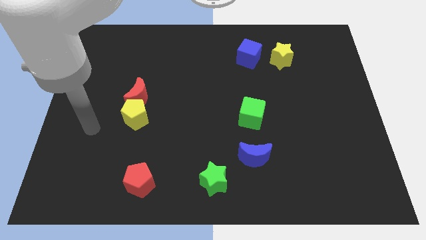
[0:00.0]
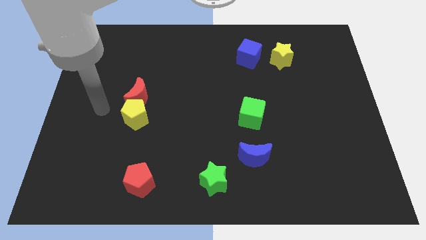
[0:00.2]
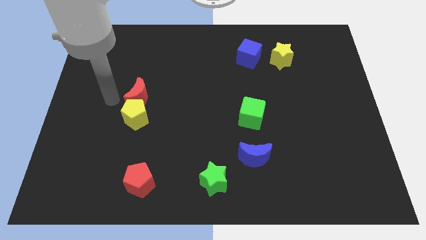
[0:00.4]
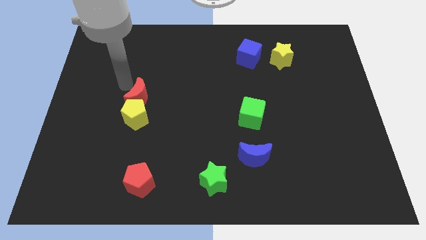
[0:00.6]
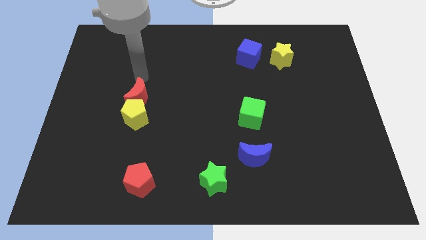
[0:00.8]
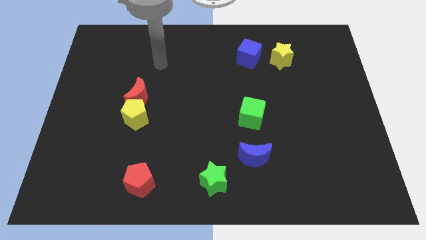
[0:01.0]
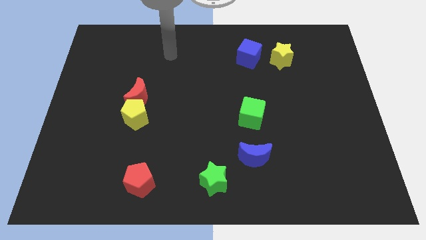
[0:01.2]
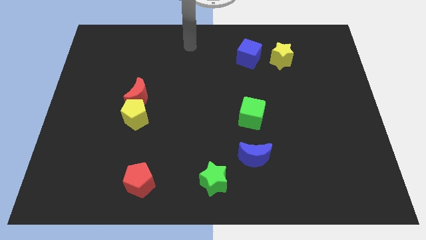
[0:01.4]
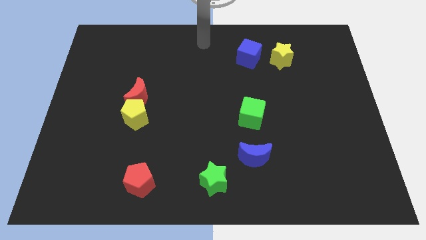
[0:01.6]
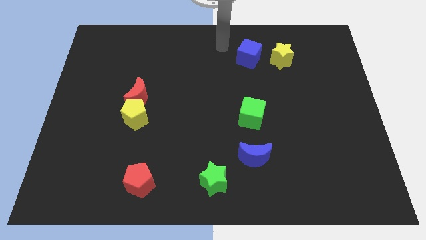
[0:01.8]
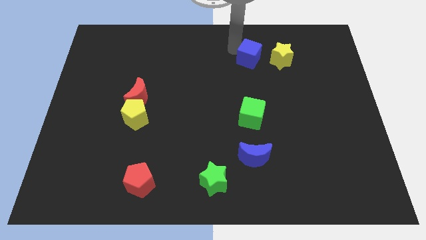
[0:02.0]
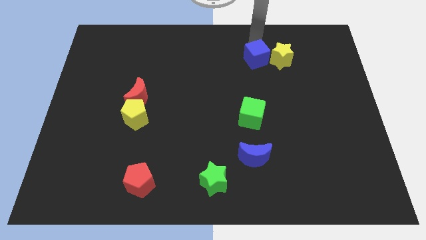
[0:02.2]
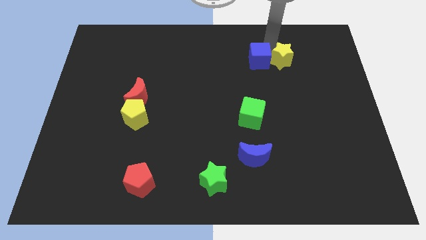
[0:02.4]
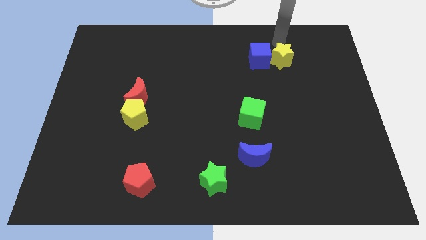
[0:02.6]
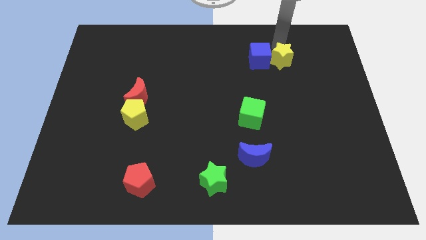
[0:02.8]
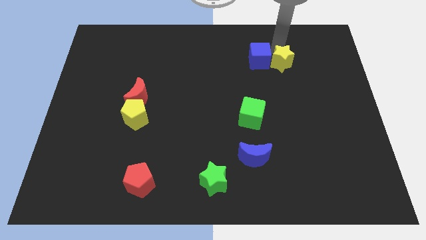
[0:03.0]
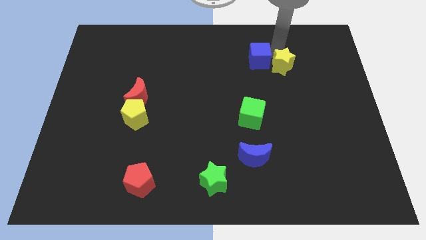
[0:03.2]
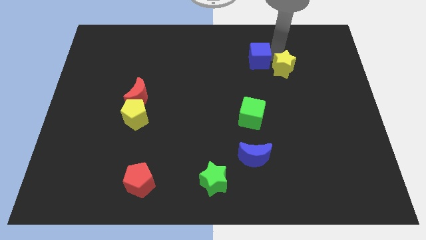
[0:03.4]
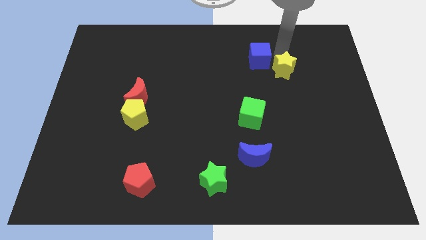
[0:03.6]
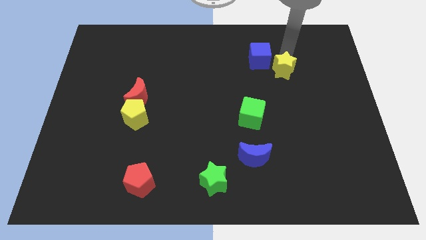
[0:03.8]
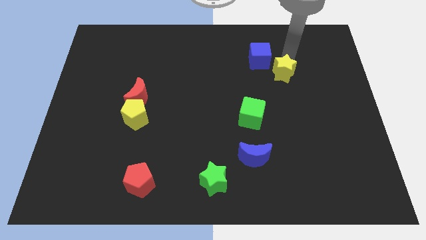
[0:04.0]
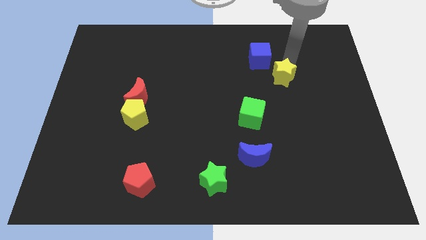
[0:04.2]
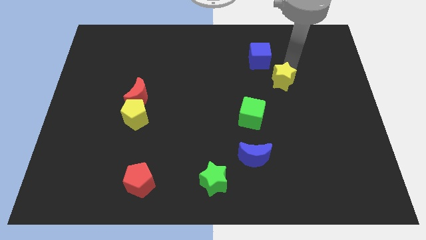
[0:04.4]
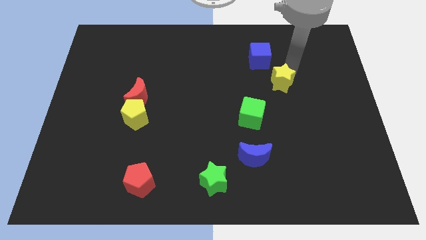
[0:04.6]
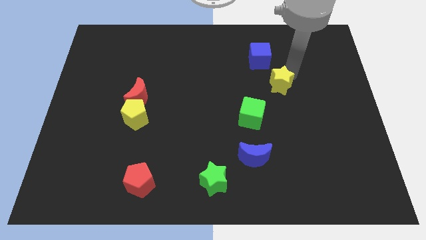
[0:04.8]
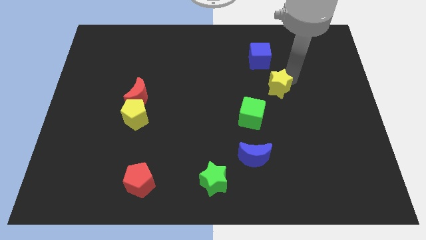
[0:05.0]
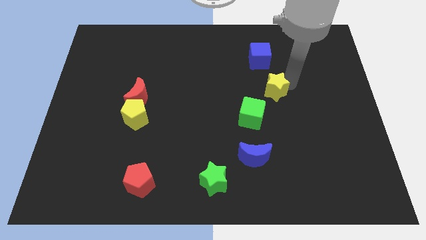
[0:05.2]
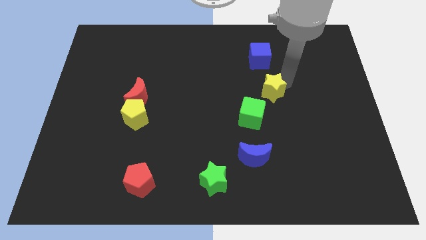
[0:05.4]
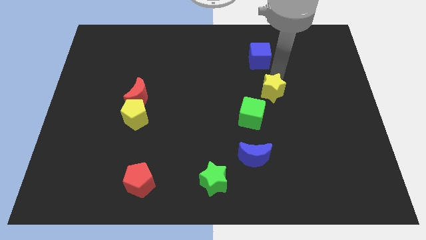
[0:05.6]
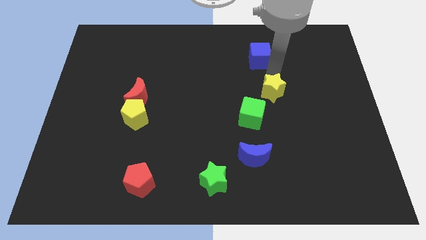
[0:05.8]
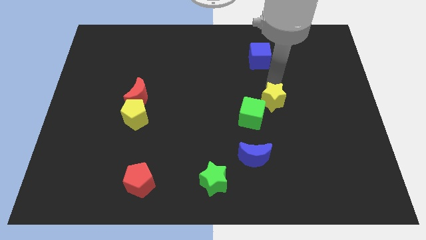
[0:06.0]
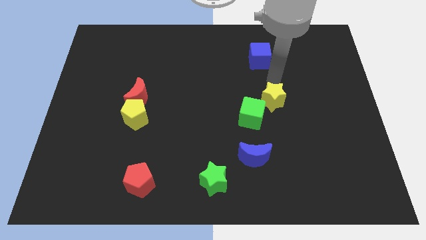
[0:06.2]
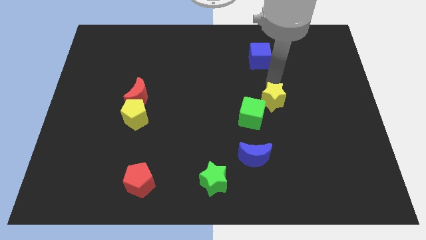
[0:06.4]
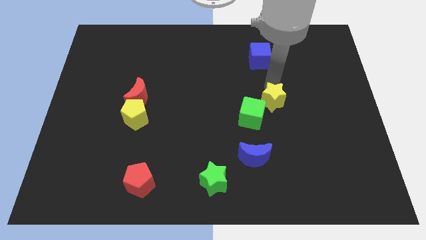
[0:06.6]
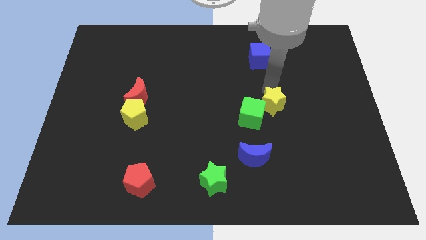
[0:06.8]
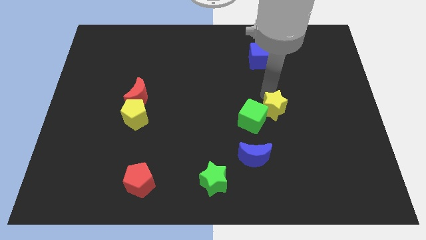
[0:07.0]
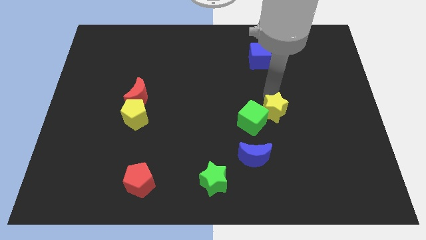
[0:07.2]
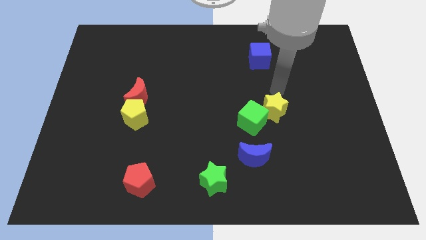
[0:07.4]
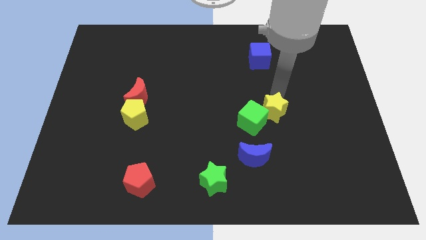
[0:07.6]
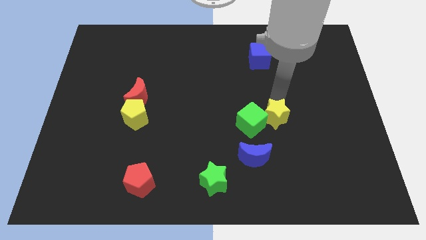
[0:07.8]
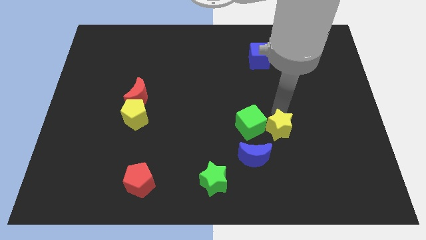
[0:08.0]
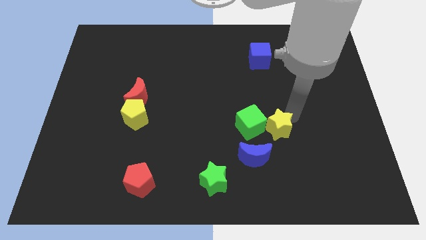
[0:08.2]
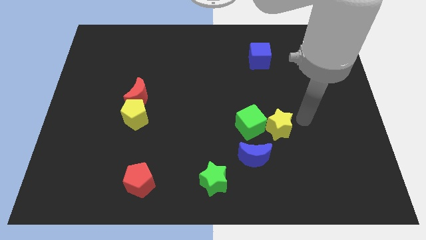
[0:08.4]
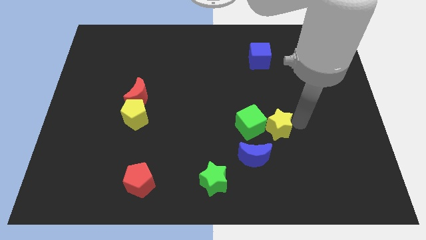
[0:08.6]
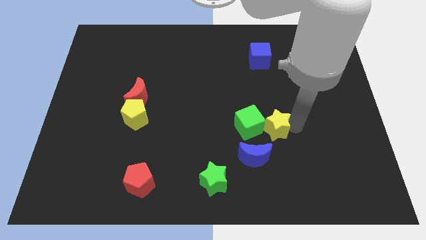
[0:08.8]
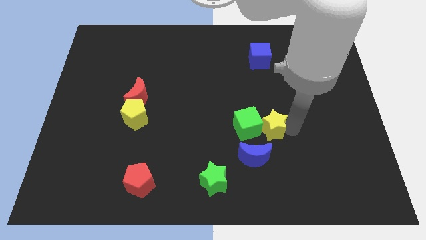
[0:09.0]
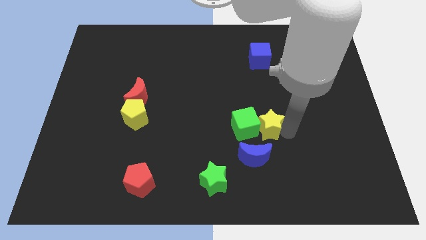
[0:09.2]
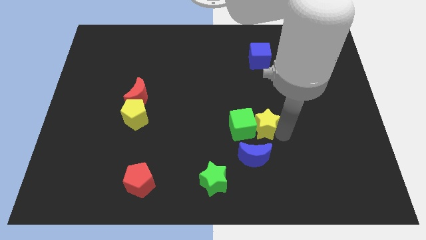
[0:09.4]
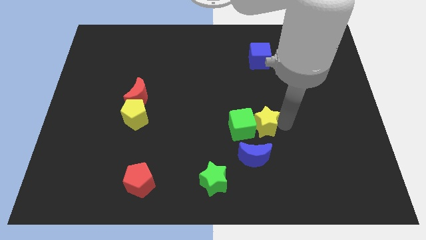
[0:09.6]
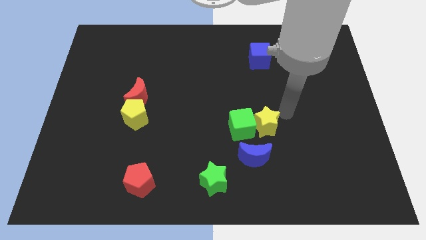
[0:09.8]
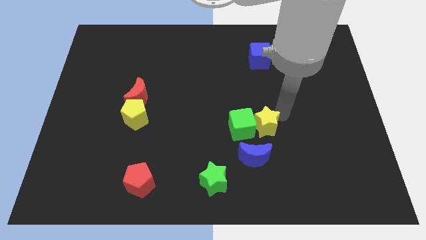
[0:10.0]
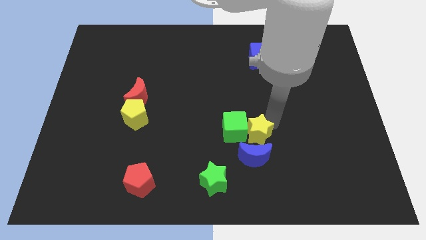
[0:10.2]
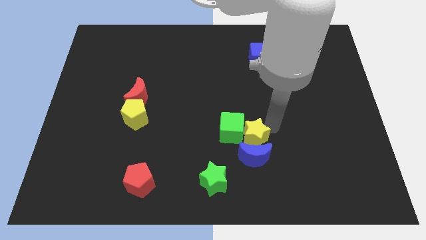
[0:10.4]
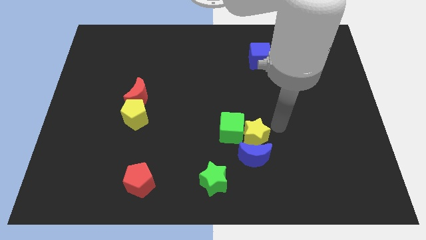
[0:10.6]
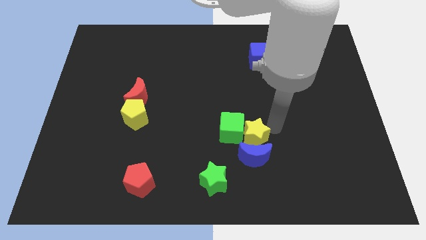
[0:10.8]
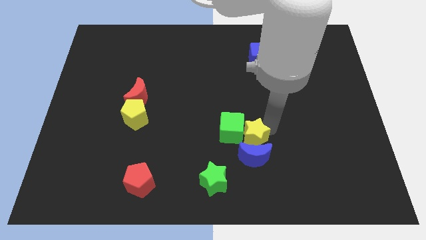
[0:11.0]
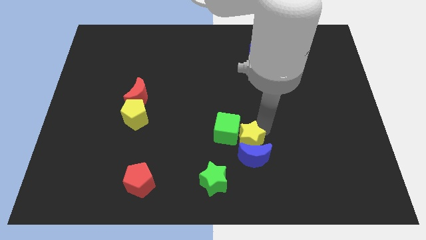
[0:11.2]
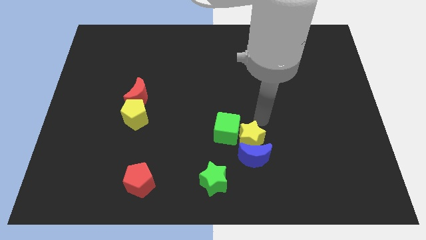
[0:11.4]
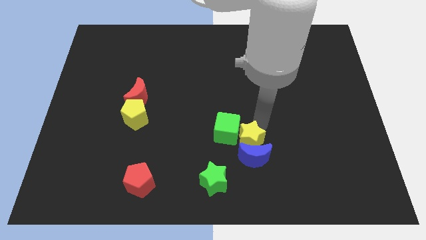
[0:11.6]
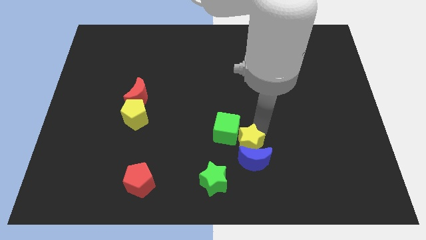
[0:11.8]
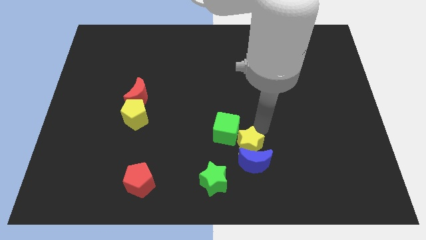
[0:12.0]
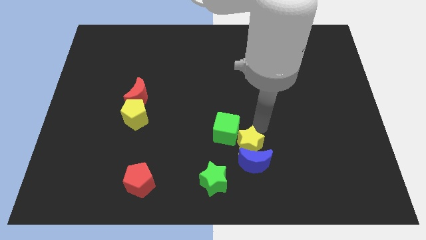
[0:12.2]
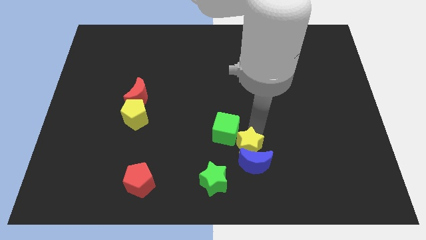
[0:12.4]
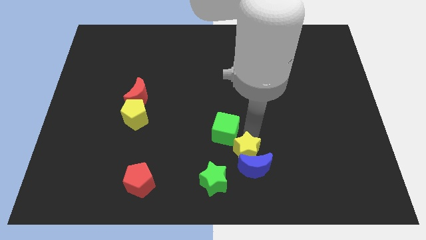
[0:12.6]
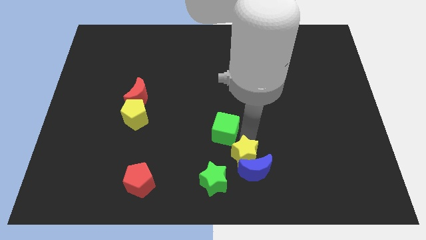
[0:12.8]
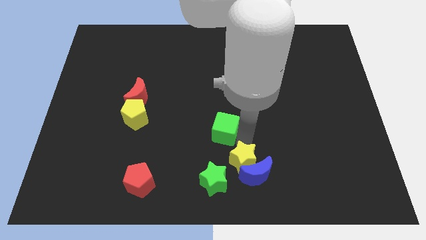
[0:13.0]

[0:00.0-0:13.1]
move the yellow star to the bottom side

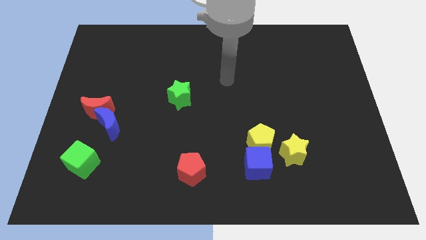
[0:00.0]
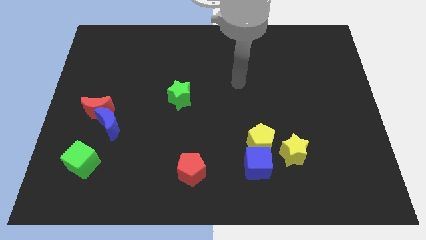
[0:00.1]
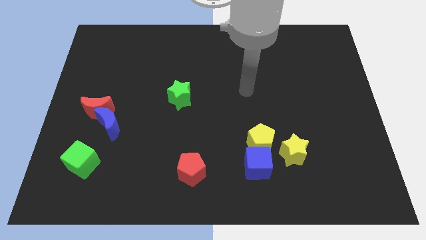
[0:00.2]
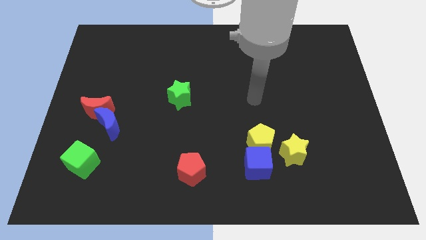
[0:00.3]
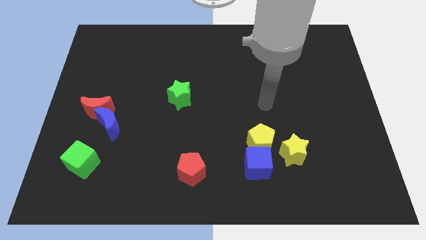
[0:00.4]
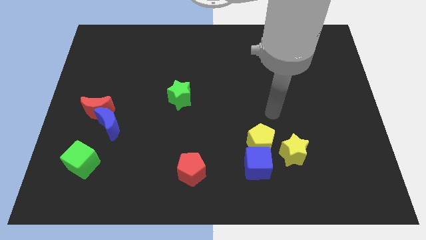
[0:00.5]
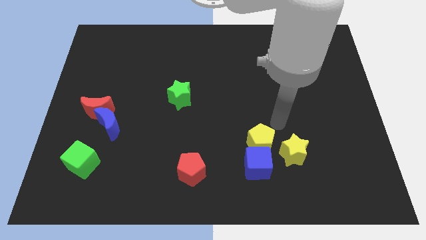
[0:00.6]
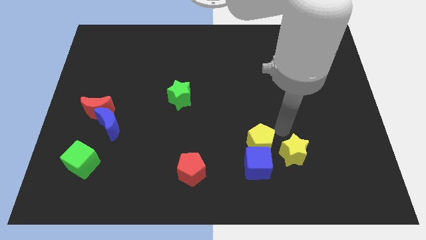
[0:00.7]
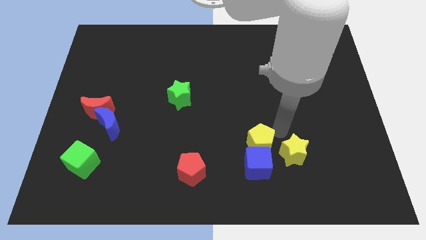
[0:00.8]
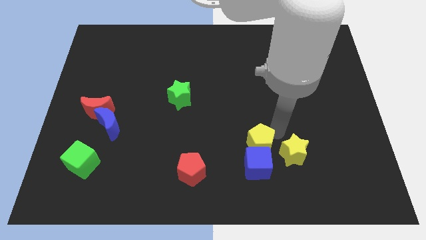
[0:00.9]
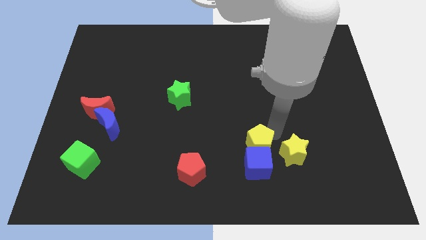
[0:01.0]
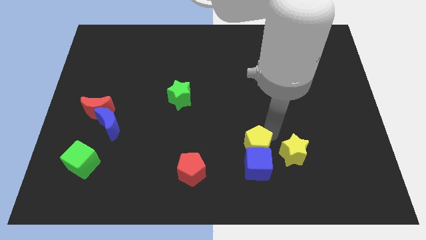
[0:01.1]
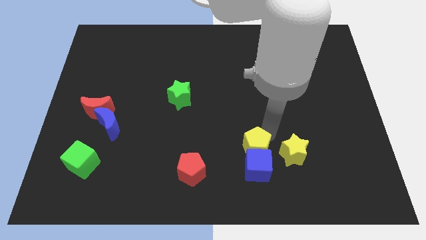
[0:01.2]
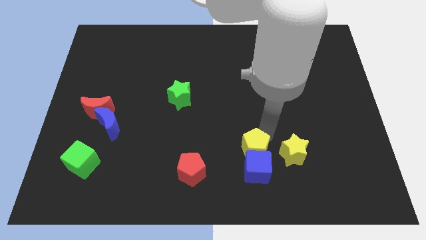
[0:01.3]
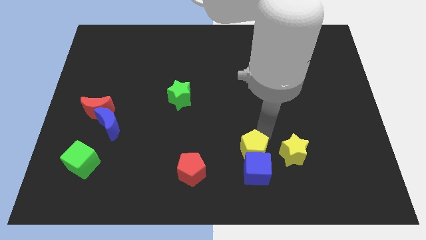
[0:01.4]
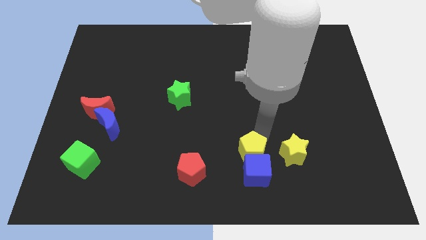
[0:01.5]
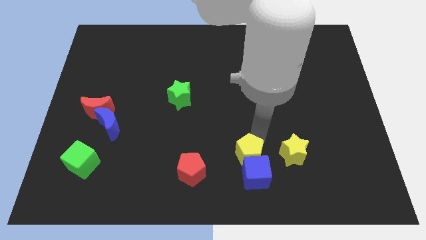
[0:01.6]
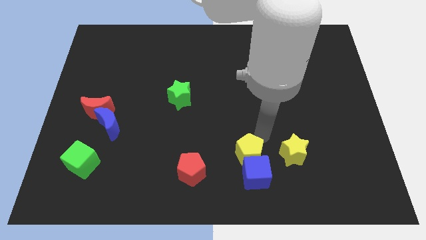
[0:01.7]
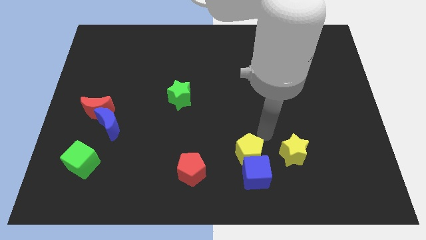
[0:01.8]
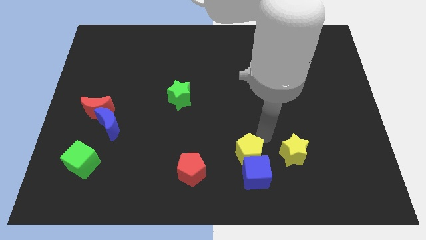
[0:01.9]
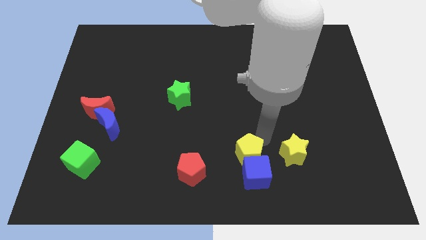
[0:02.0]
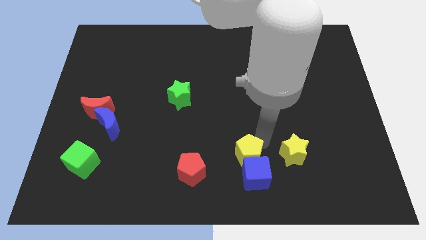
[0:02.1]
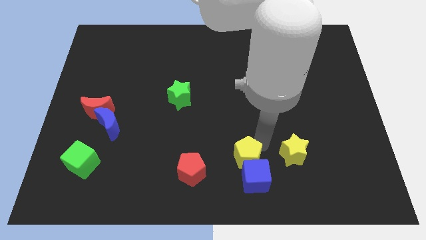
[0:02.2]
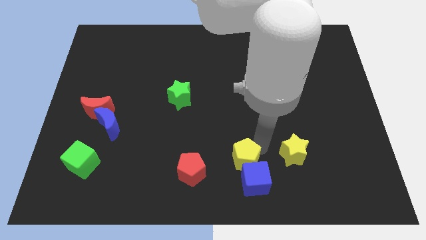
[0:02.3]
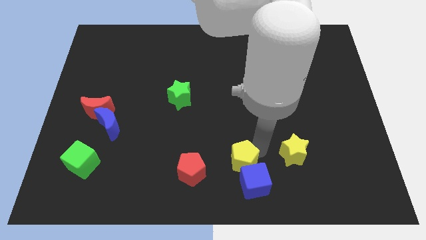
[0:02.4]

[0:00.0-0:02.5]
move the yellow pentagon to the bottom
